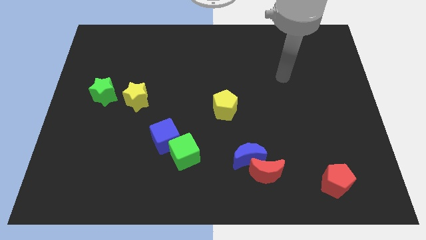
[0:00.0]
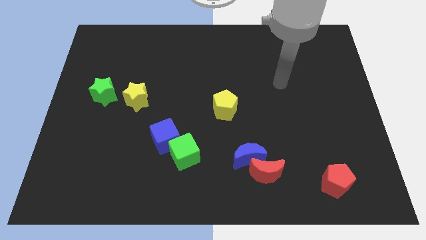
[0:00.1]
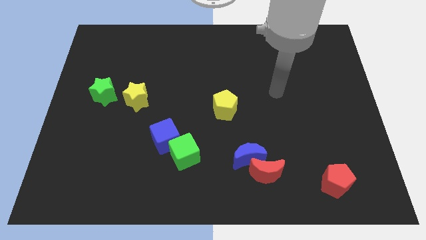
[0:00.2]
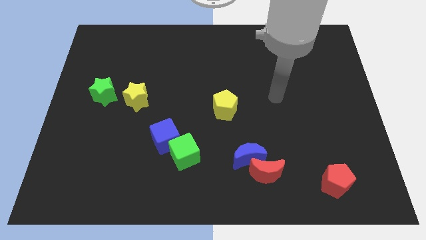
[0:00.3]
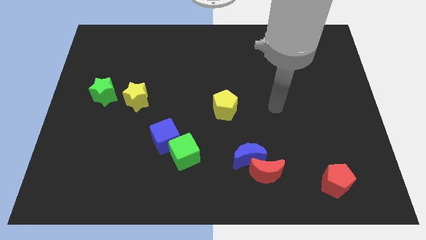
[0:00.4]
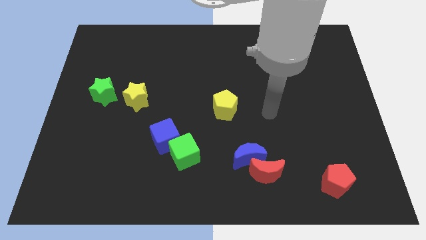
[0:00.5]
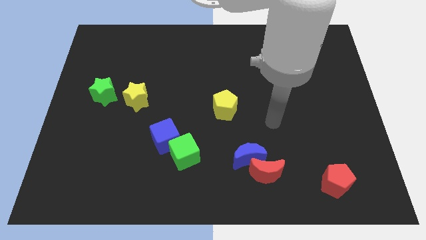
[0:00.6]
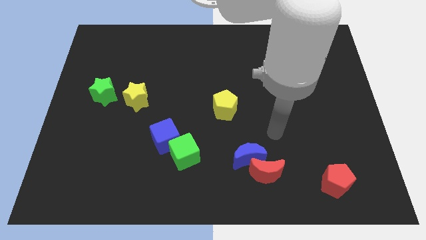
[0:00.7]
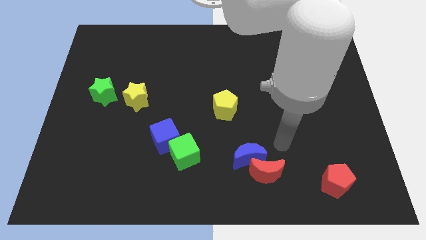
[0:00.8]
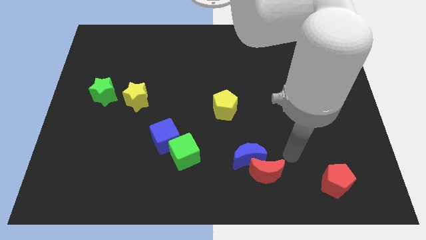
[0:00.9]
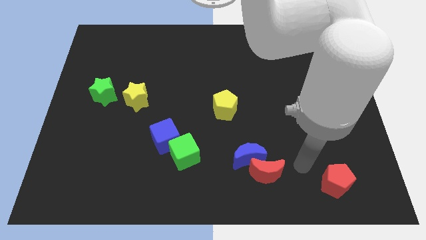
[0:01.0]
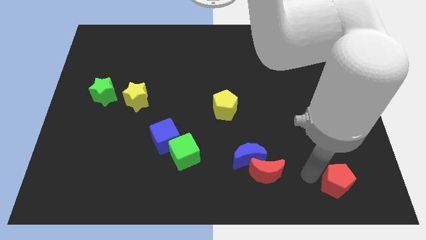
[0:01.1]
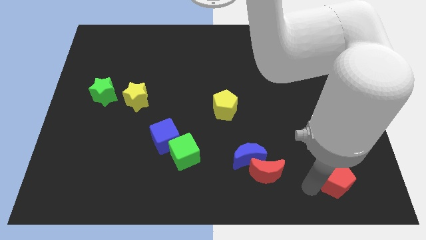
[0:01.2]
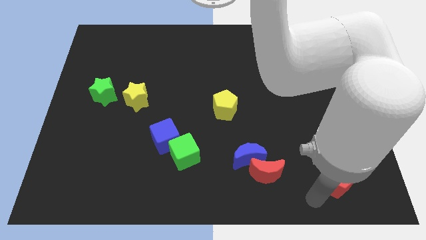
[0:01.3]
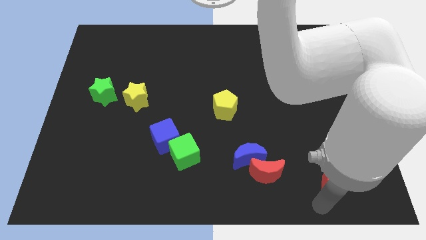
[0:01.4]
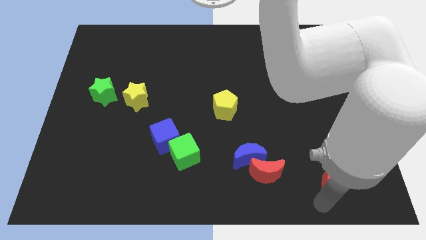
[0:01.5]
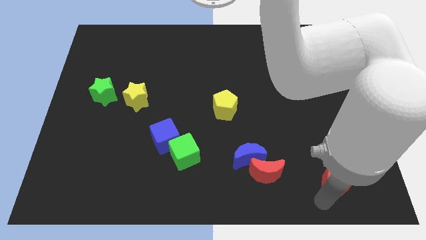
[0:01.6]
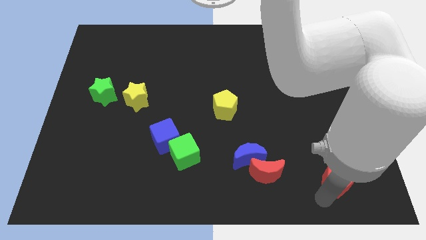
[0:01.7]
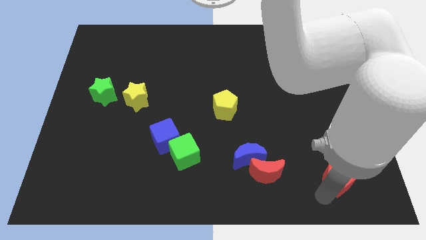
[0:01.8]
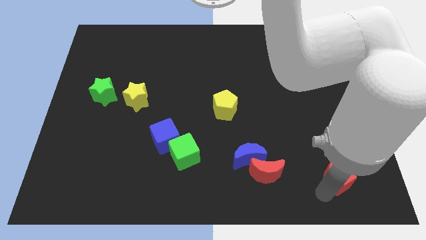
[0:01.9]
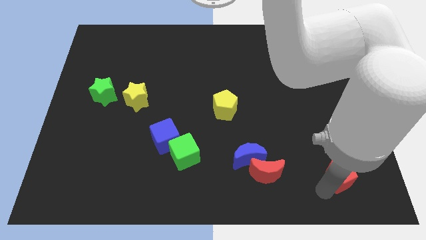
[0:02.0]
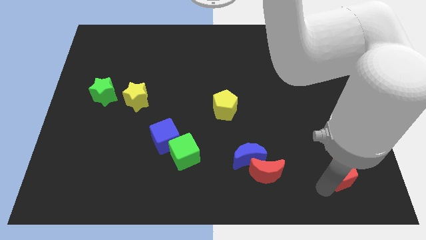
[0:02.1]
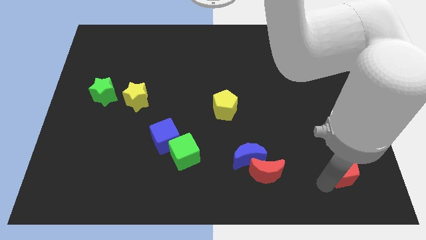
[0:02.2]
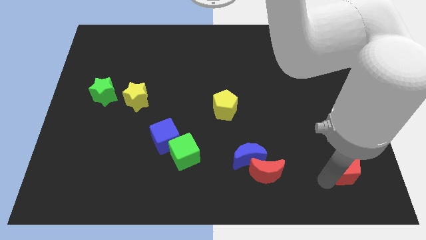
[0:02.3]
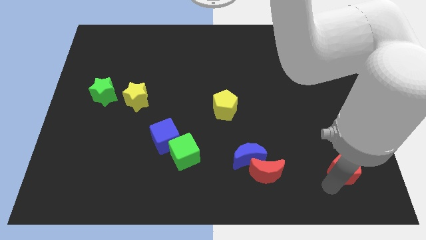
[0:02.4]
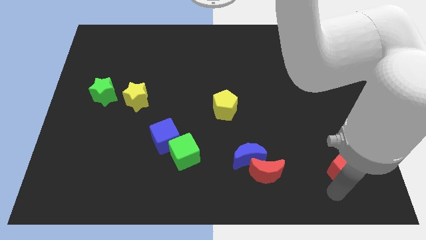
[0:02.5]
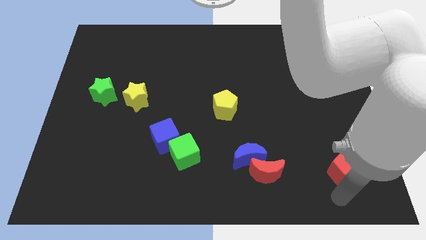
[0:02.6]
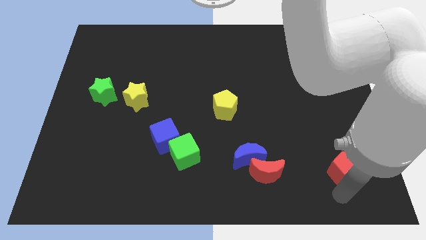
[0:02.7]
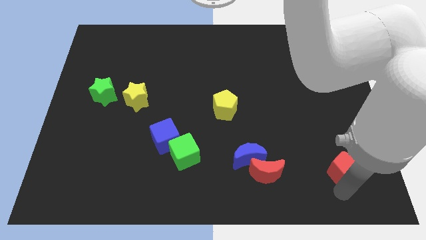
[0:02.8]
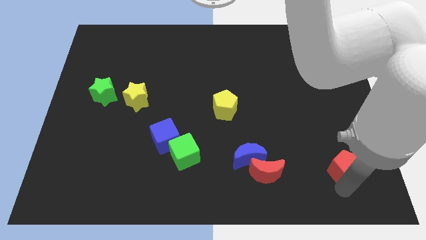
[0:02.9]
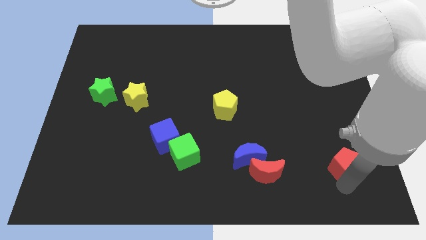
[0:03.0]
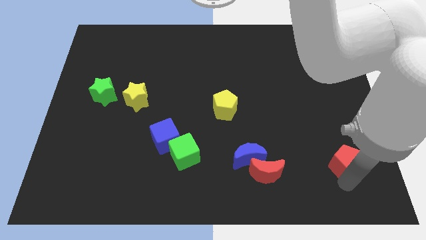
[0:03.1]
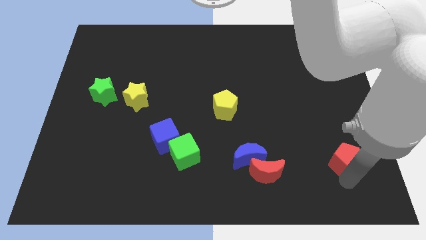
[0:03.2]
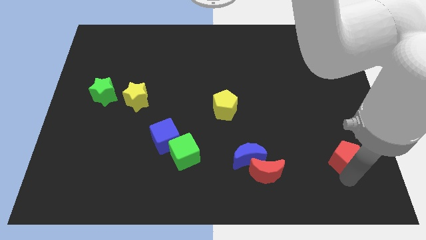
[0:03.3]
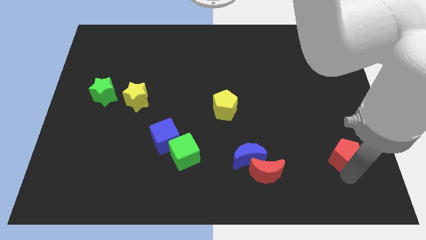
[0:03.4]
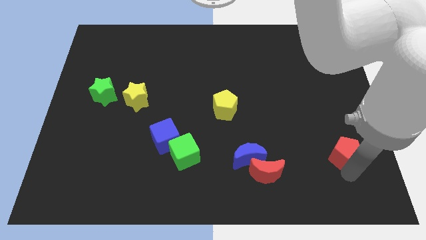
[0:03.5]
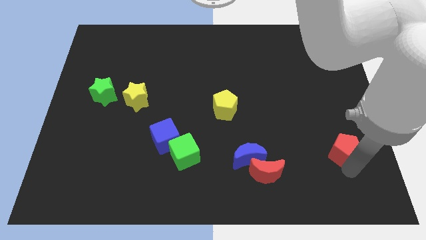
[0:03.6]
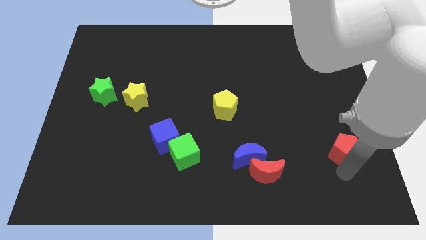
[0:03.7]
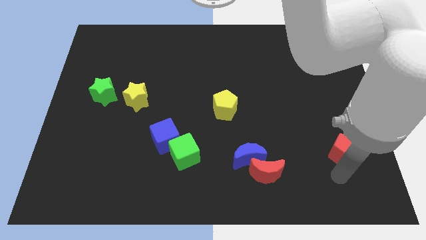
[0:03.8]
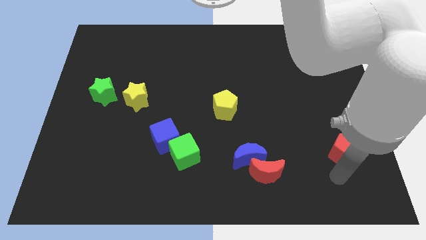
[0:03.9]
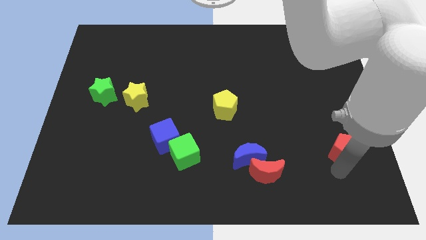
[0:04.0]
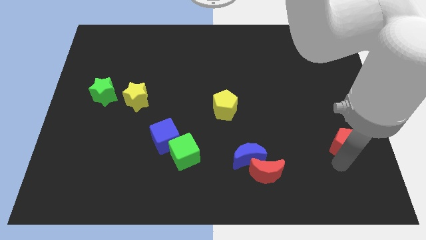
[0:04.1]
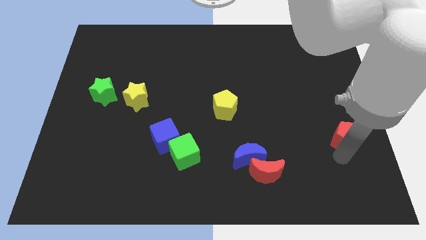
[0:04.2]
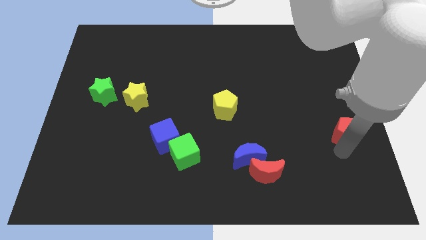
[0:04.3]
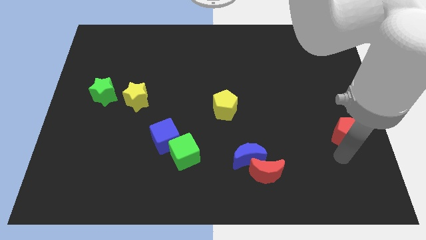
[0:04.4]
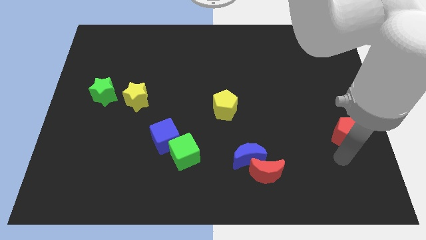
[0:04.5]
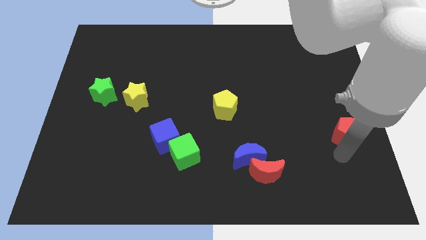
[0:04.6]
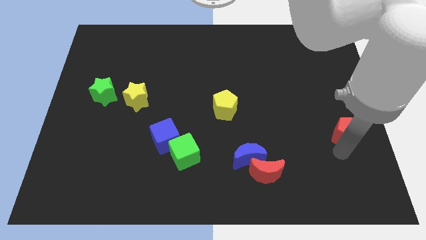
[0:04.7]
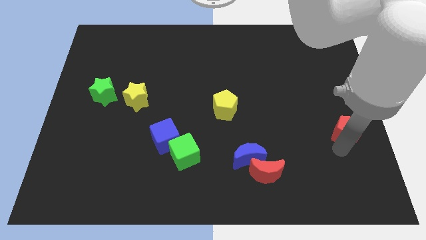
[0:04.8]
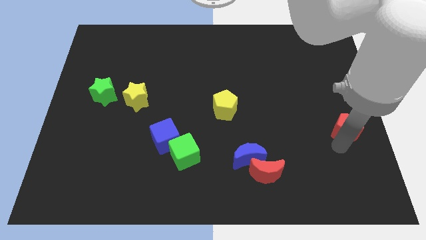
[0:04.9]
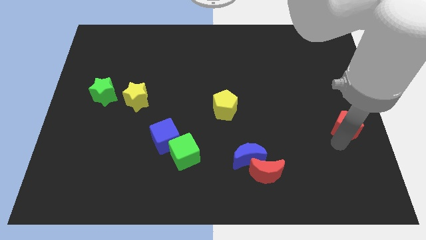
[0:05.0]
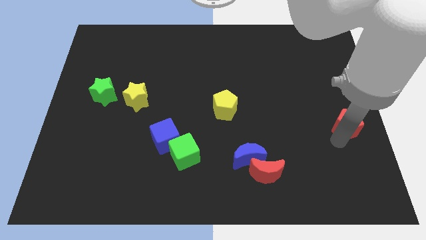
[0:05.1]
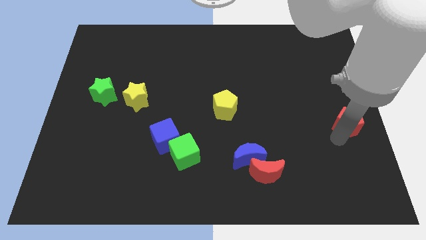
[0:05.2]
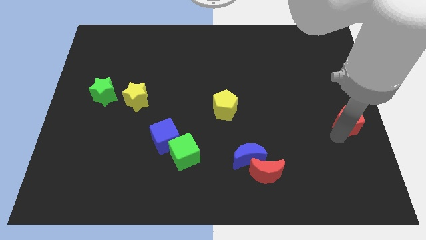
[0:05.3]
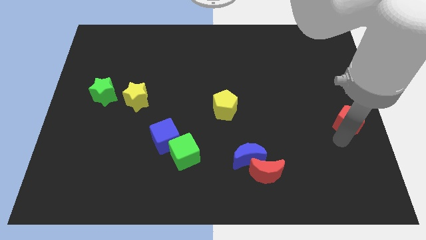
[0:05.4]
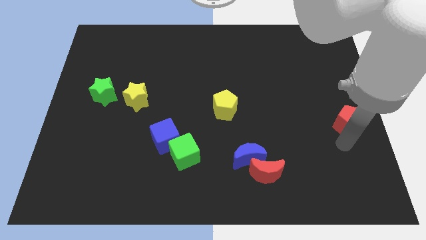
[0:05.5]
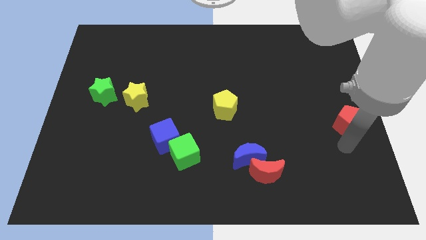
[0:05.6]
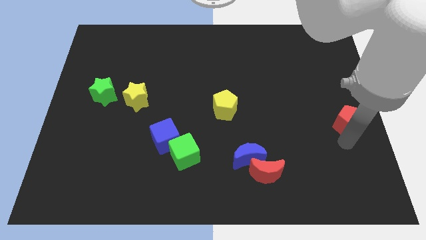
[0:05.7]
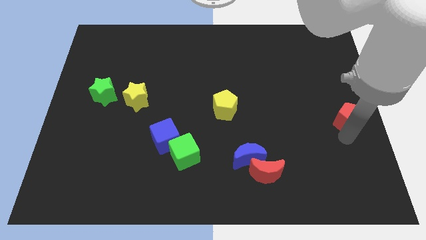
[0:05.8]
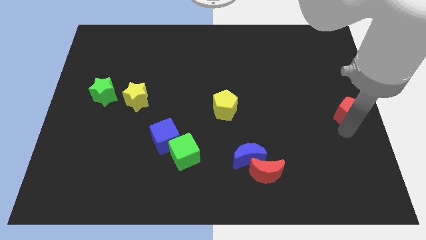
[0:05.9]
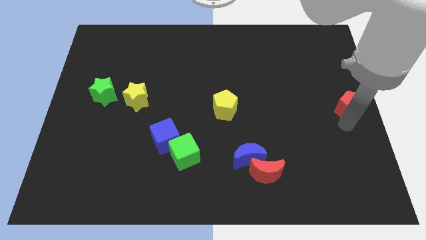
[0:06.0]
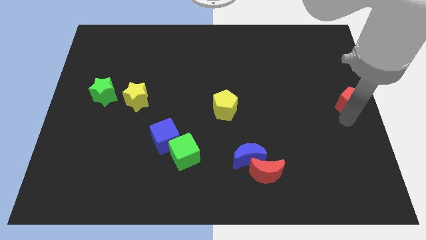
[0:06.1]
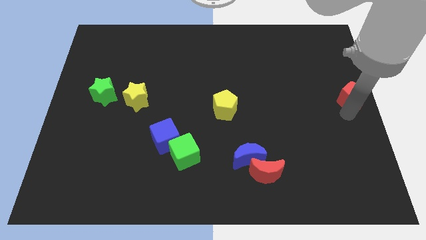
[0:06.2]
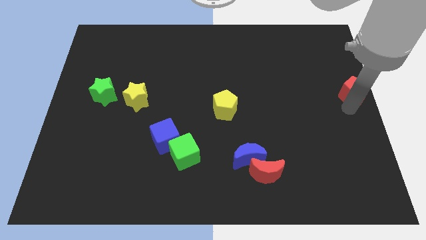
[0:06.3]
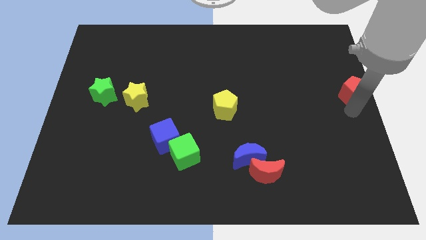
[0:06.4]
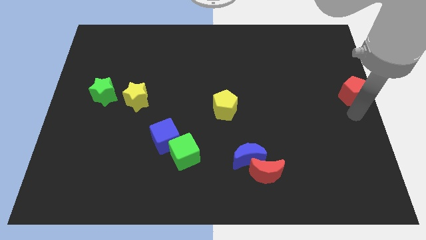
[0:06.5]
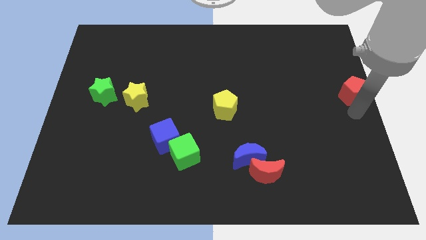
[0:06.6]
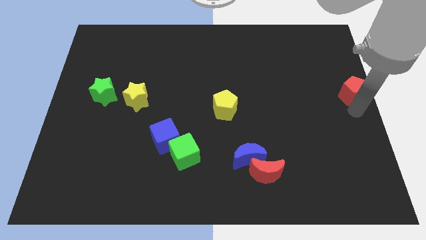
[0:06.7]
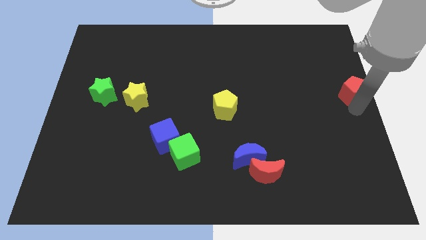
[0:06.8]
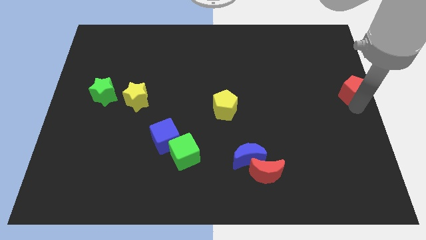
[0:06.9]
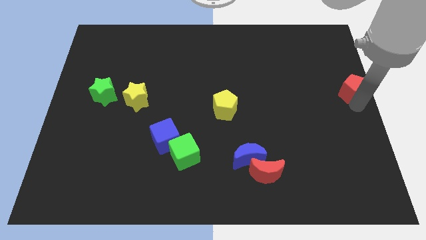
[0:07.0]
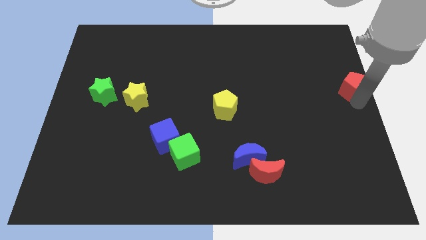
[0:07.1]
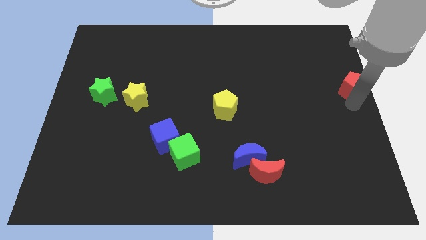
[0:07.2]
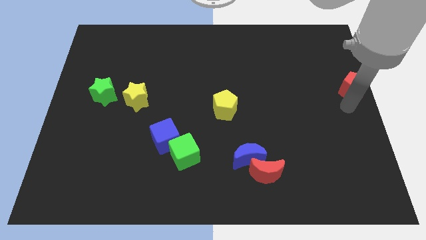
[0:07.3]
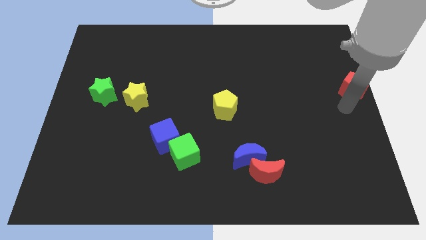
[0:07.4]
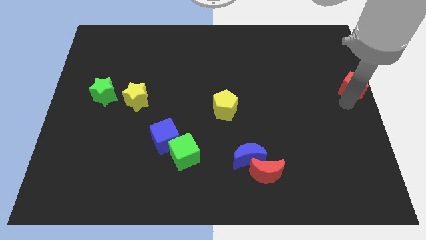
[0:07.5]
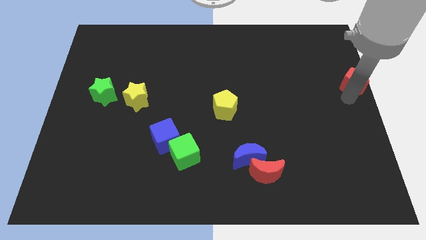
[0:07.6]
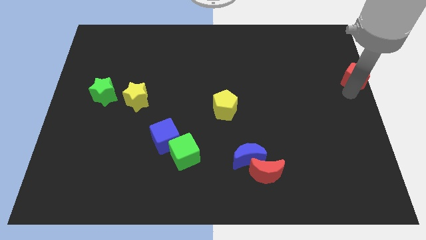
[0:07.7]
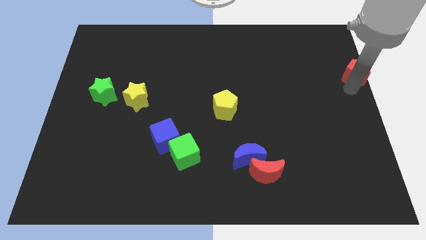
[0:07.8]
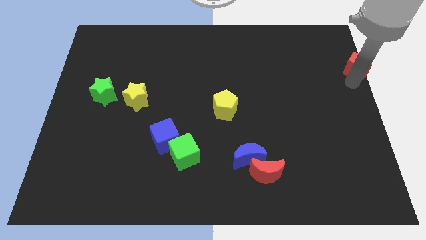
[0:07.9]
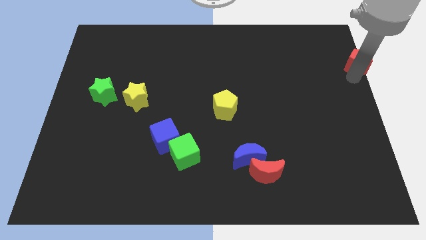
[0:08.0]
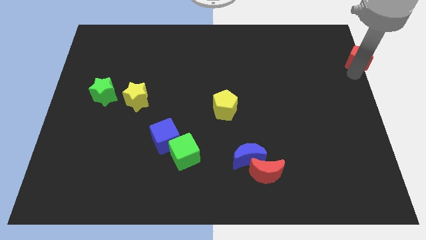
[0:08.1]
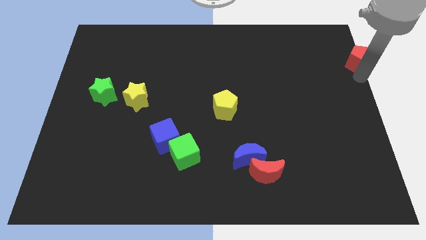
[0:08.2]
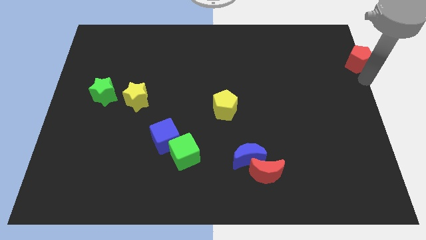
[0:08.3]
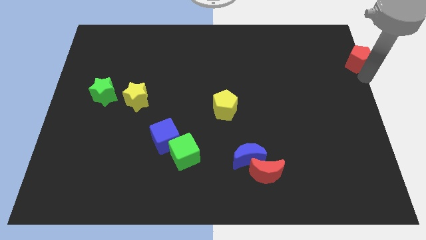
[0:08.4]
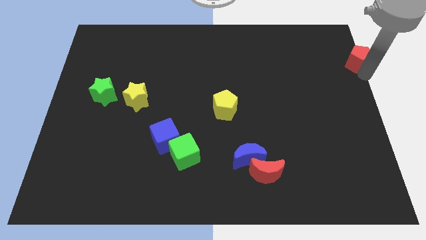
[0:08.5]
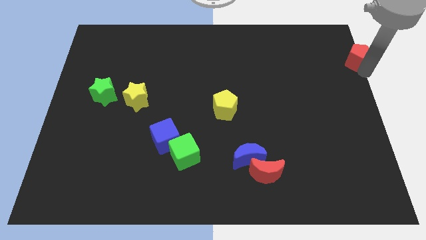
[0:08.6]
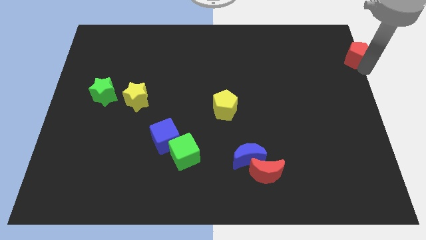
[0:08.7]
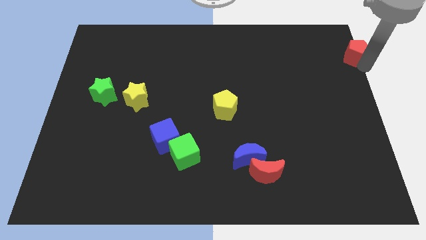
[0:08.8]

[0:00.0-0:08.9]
move the red pentagon to the top right
